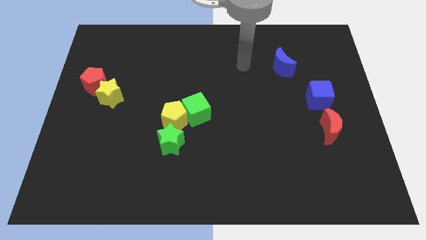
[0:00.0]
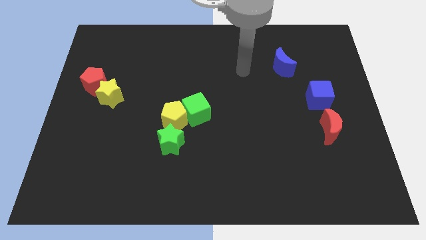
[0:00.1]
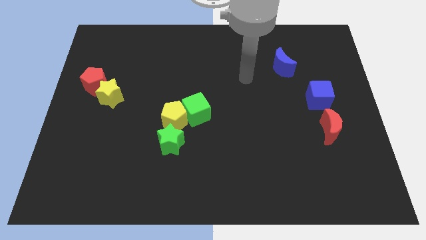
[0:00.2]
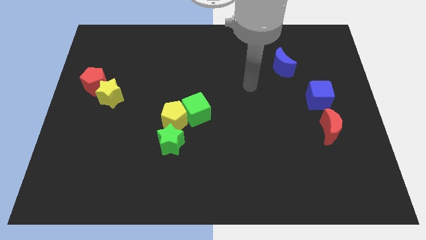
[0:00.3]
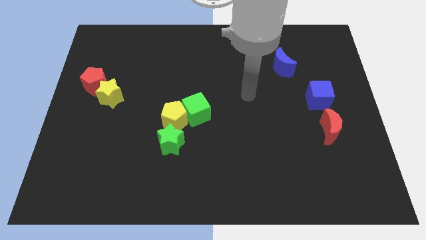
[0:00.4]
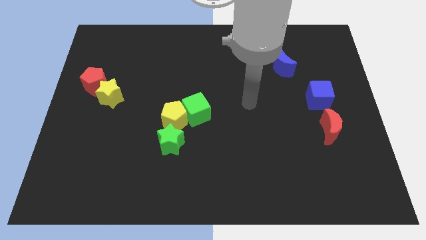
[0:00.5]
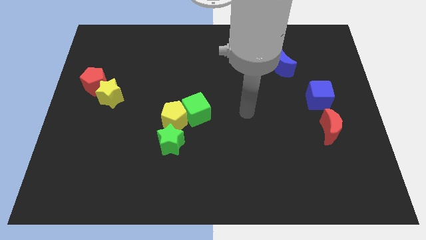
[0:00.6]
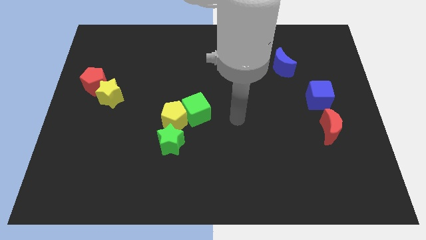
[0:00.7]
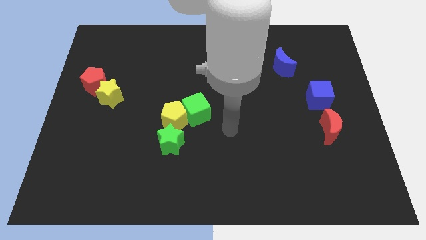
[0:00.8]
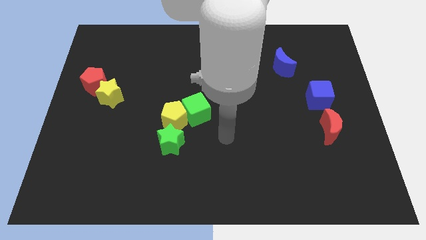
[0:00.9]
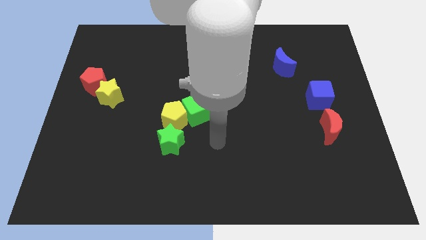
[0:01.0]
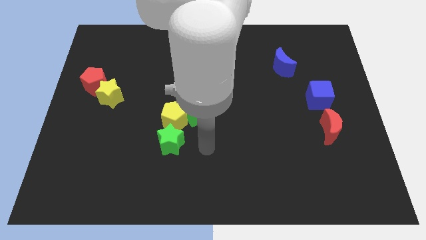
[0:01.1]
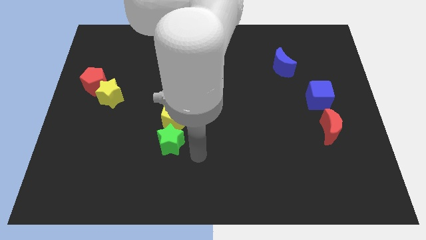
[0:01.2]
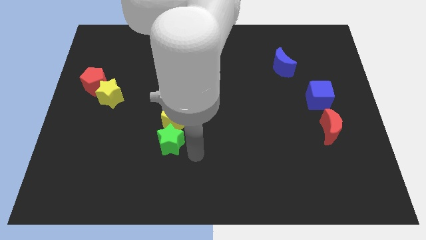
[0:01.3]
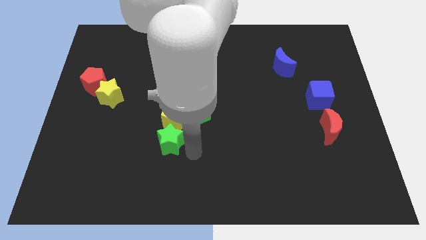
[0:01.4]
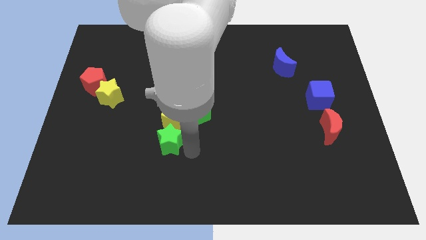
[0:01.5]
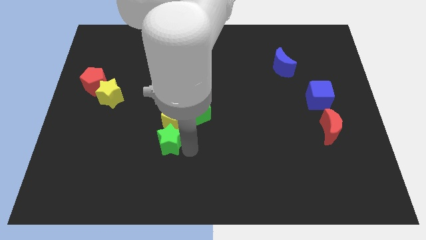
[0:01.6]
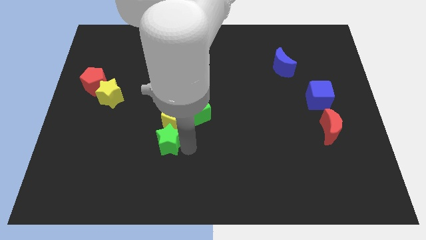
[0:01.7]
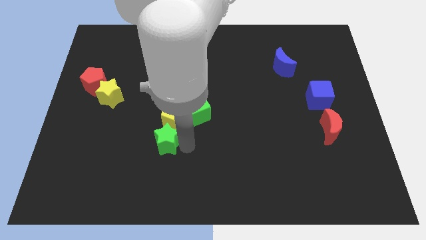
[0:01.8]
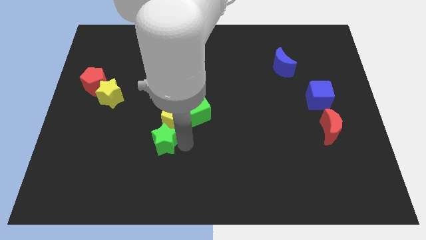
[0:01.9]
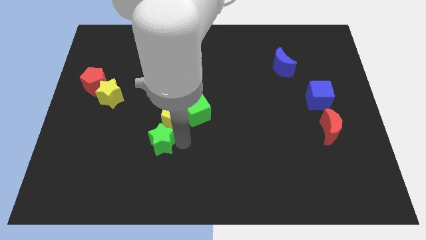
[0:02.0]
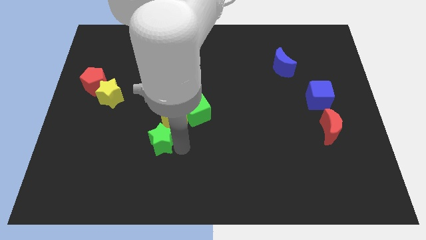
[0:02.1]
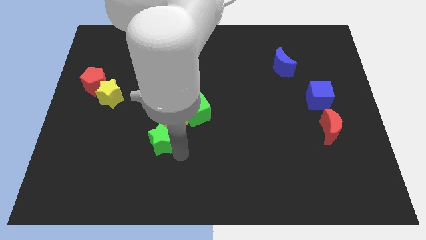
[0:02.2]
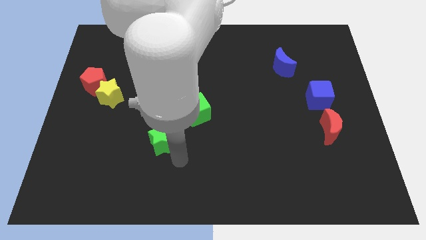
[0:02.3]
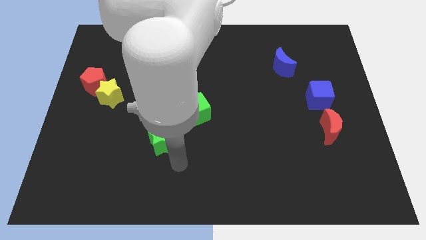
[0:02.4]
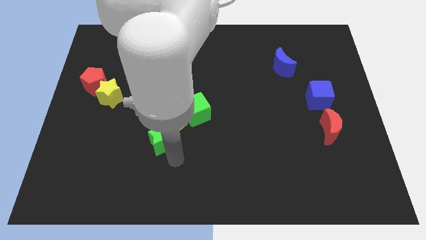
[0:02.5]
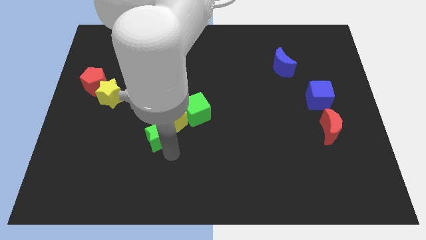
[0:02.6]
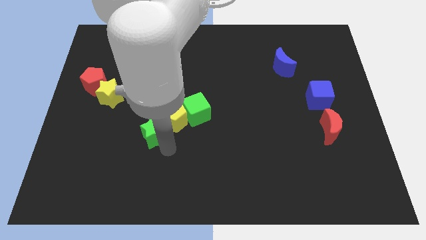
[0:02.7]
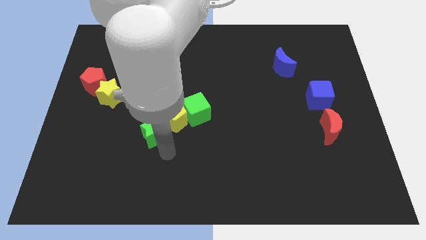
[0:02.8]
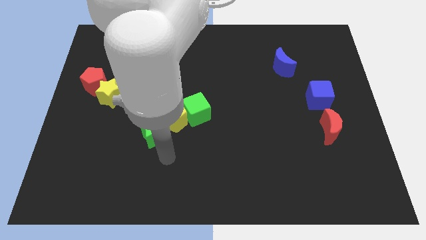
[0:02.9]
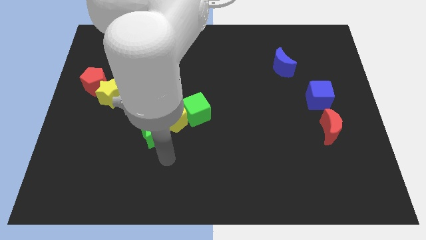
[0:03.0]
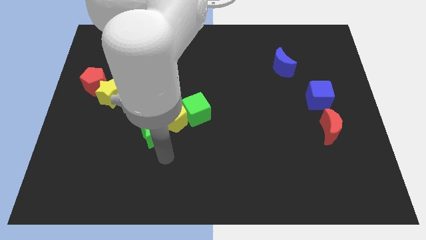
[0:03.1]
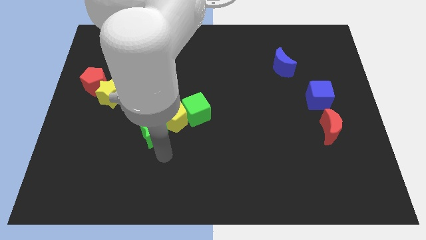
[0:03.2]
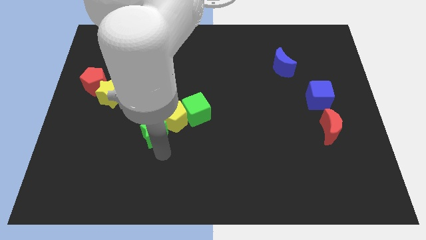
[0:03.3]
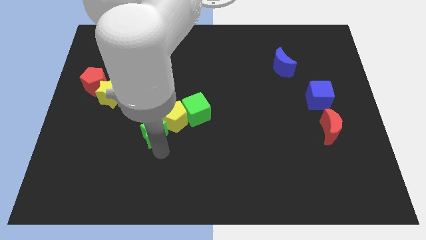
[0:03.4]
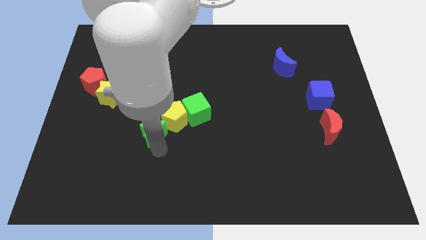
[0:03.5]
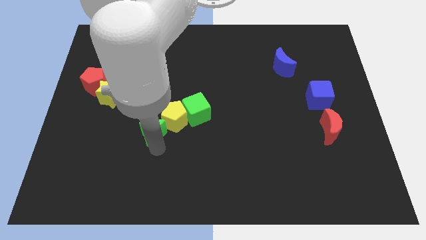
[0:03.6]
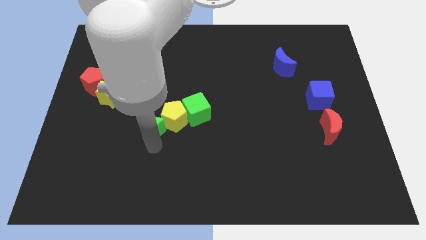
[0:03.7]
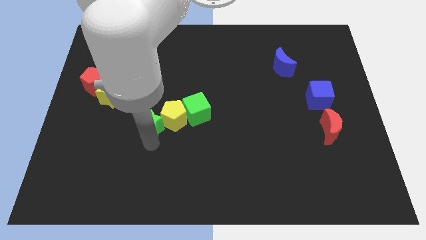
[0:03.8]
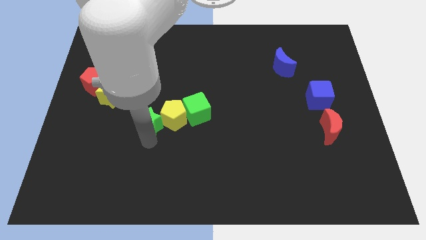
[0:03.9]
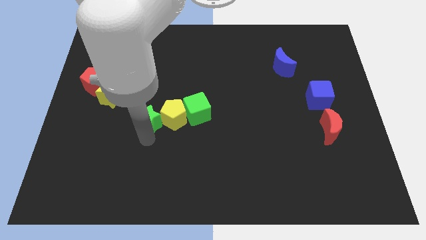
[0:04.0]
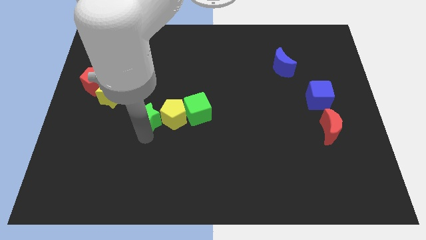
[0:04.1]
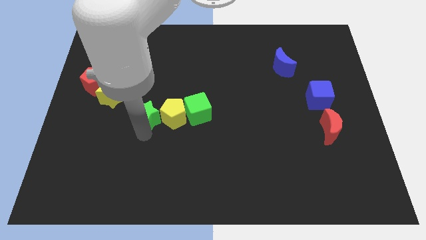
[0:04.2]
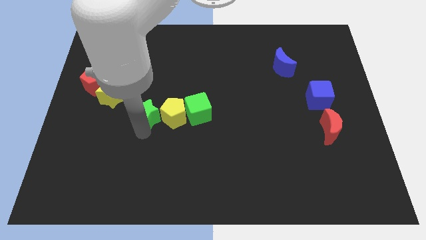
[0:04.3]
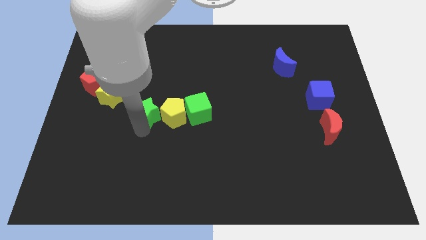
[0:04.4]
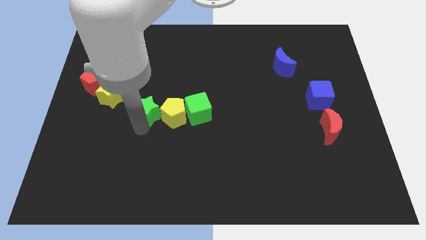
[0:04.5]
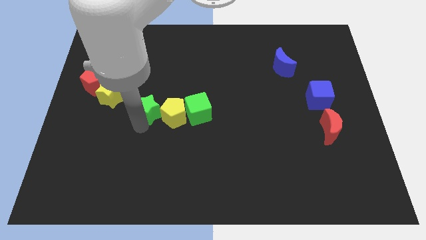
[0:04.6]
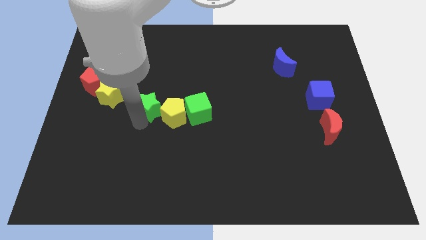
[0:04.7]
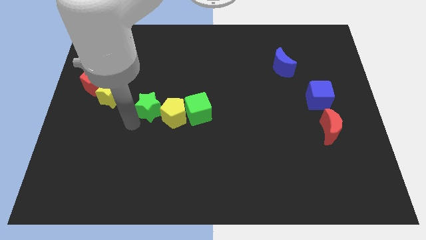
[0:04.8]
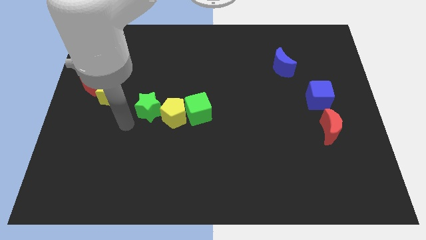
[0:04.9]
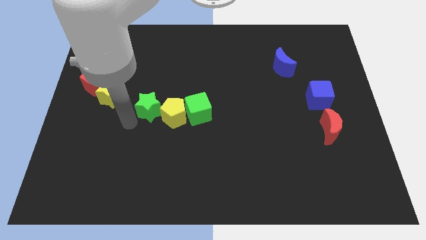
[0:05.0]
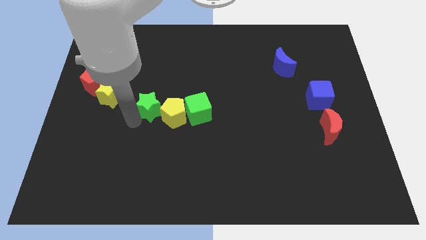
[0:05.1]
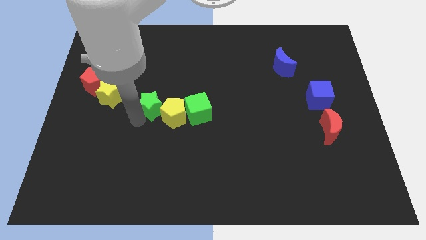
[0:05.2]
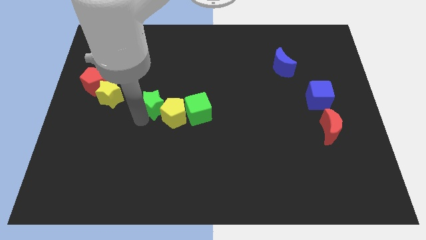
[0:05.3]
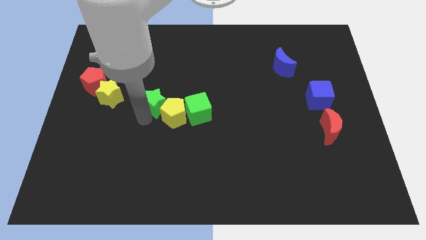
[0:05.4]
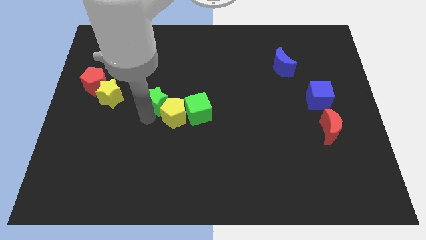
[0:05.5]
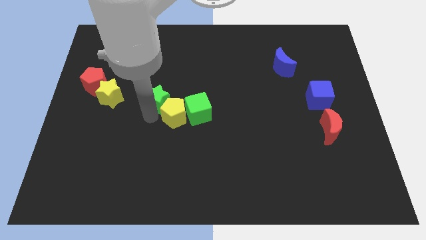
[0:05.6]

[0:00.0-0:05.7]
move the green star to the top left of the green cube

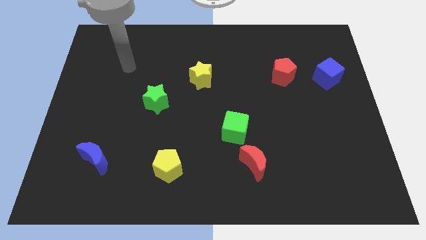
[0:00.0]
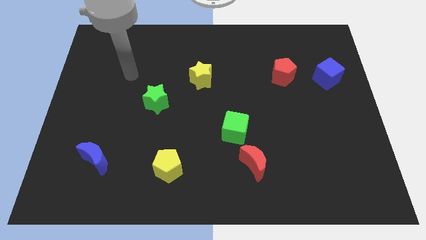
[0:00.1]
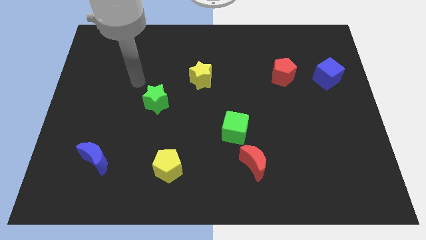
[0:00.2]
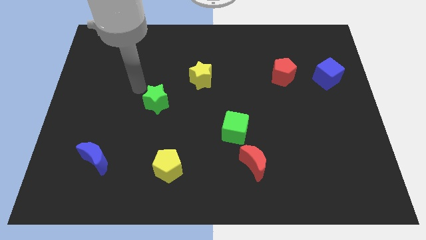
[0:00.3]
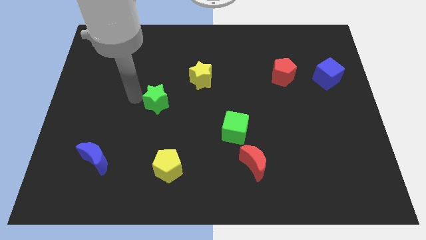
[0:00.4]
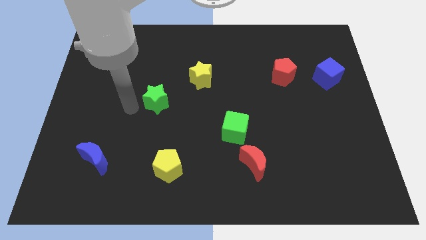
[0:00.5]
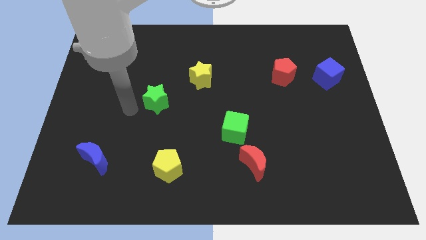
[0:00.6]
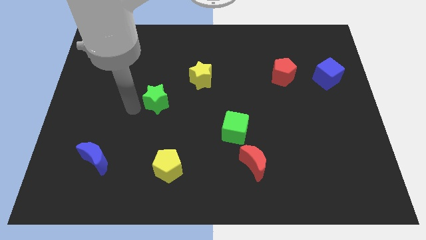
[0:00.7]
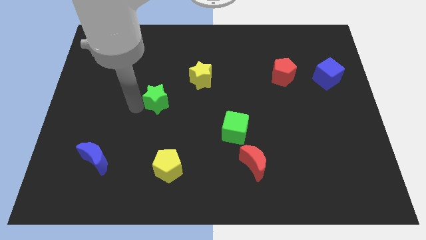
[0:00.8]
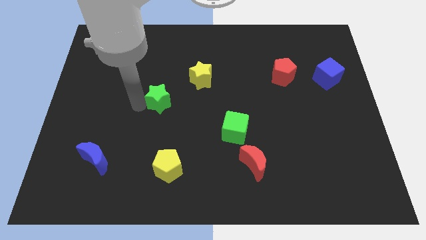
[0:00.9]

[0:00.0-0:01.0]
push the green star diagonally down and to the left of the yellow star

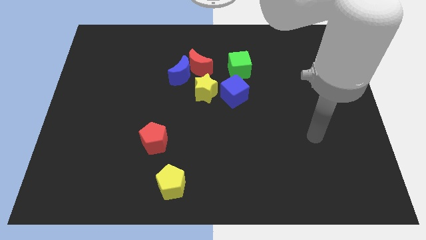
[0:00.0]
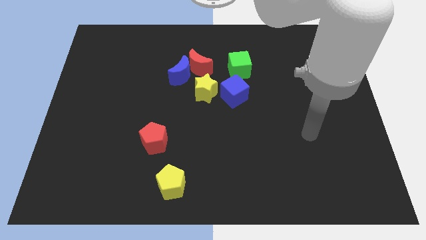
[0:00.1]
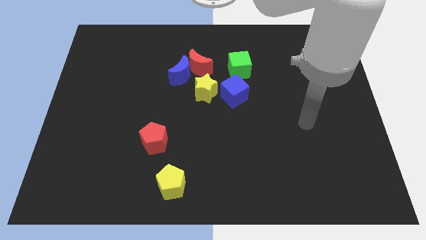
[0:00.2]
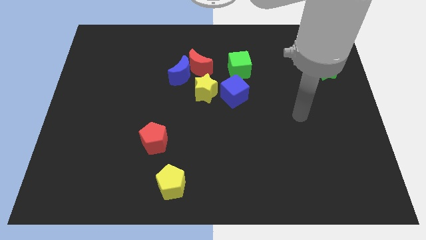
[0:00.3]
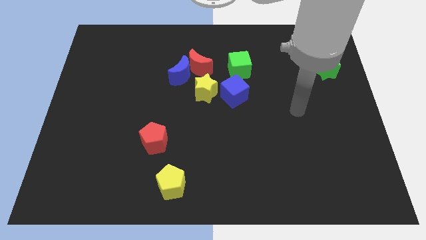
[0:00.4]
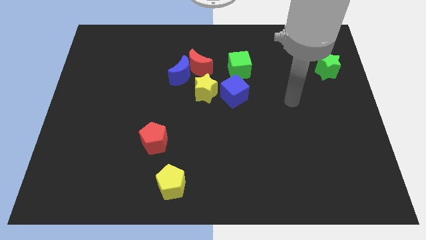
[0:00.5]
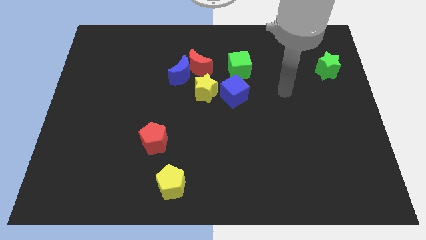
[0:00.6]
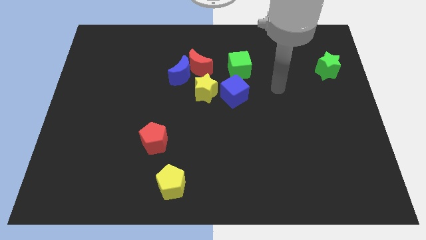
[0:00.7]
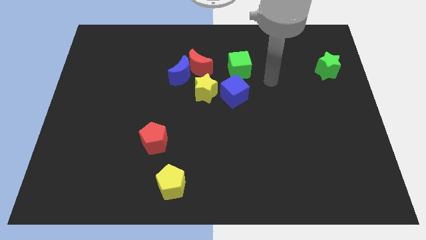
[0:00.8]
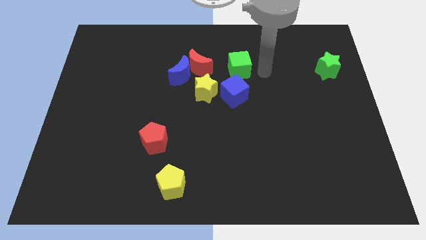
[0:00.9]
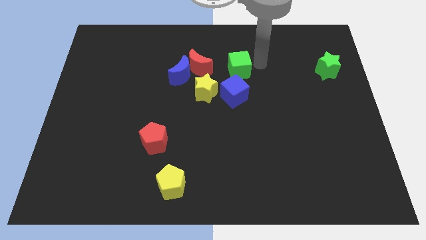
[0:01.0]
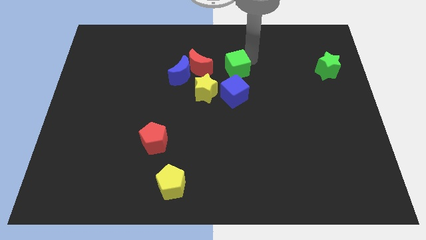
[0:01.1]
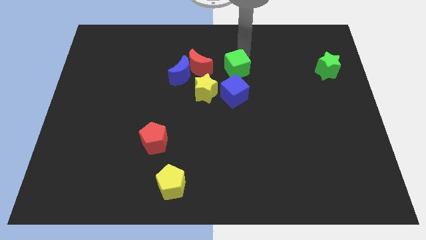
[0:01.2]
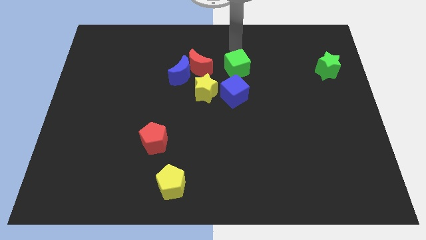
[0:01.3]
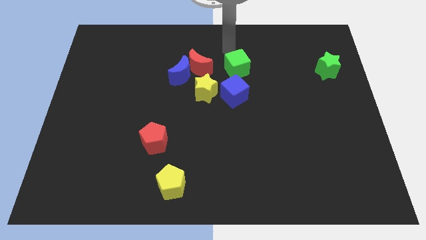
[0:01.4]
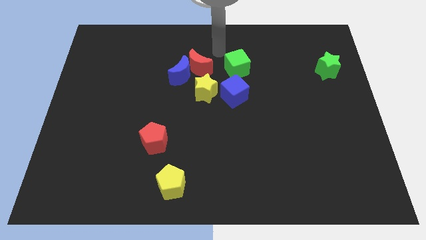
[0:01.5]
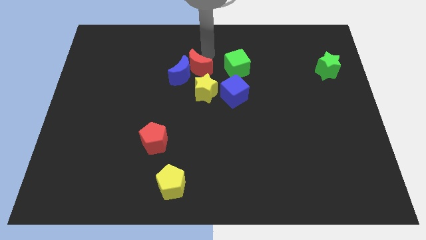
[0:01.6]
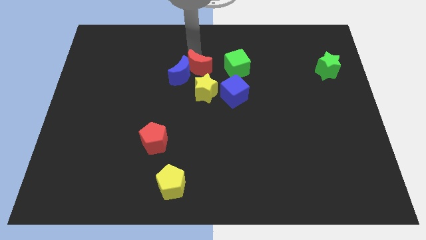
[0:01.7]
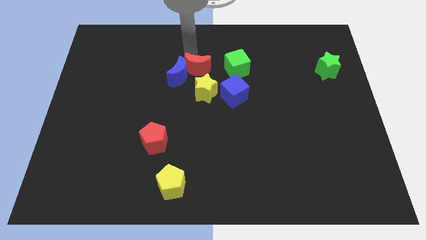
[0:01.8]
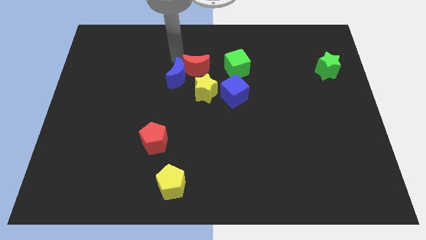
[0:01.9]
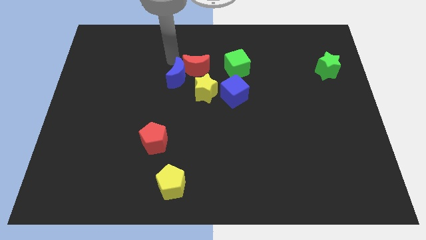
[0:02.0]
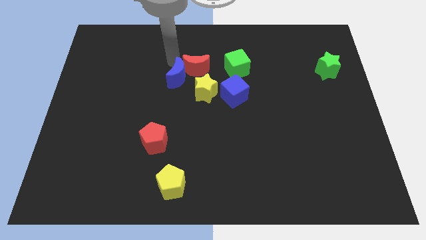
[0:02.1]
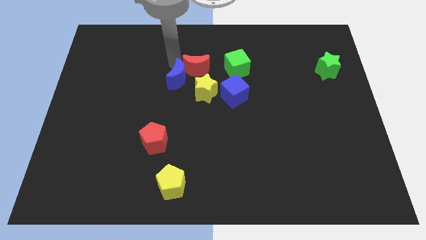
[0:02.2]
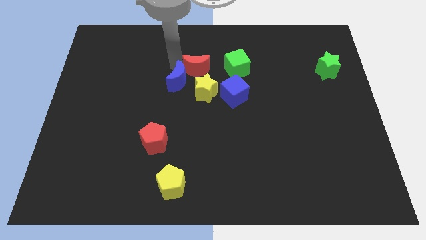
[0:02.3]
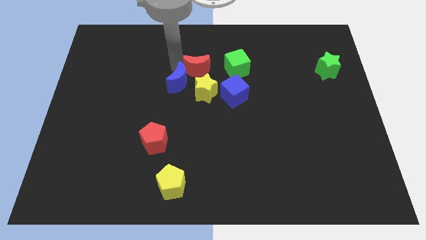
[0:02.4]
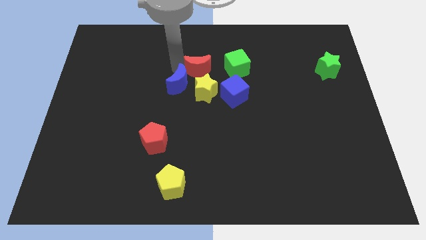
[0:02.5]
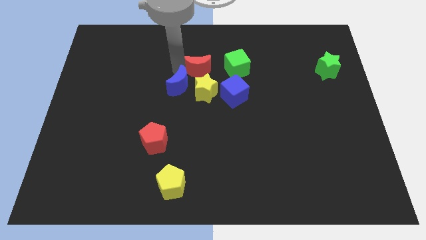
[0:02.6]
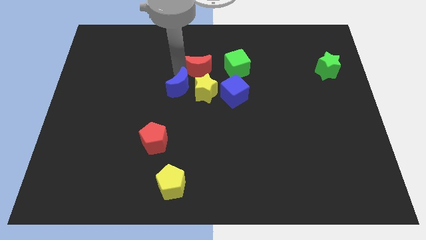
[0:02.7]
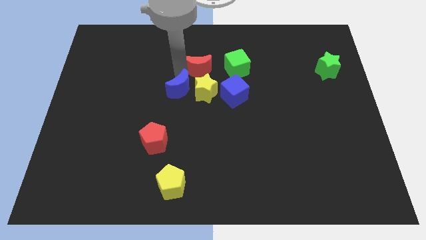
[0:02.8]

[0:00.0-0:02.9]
slide the blue moon to the bottom left side of the yellow star
